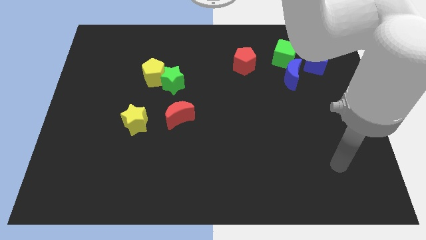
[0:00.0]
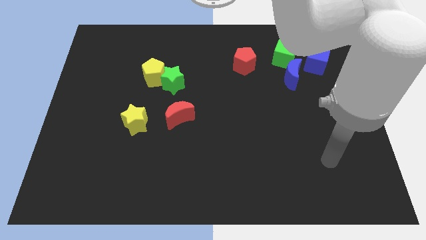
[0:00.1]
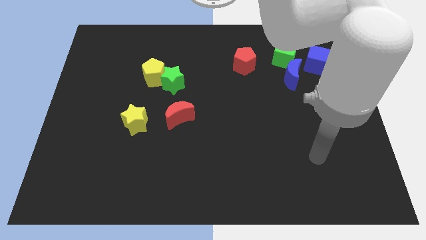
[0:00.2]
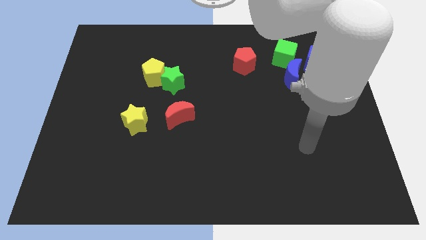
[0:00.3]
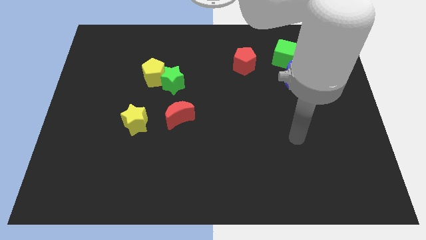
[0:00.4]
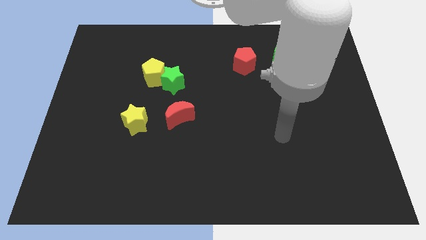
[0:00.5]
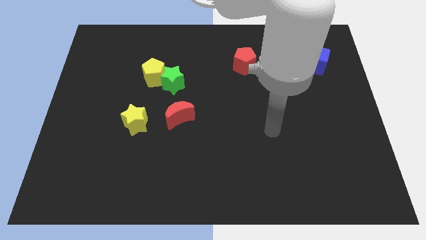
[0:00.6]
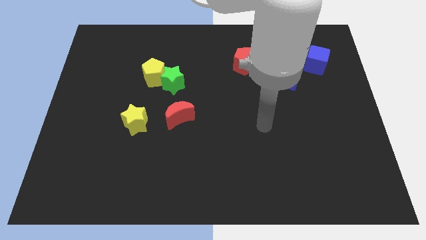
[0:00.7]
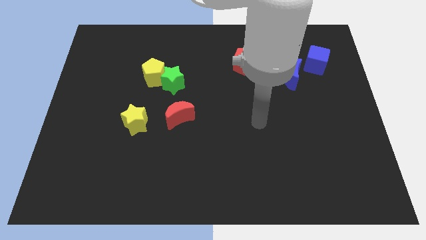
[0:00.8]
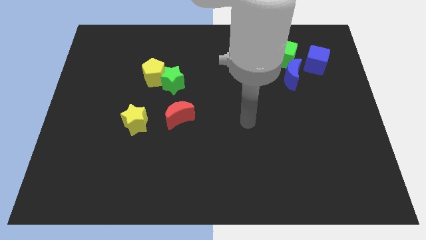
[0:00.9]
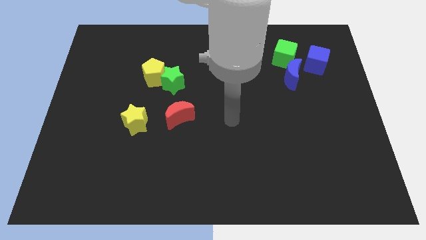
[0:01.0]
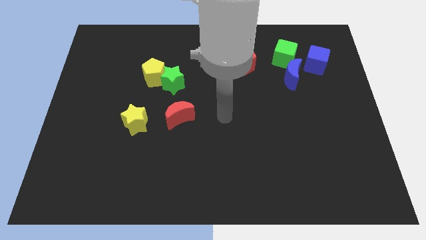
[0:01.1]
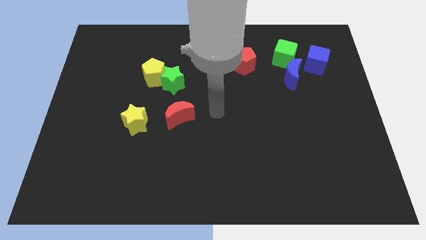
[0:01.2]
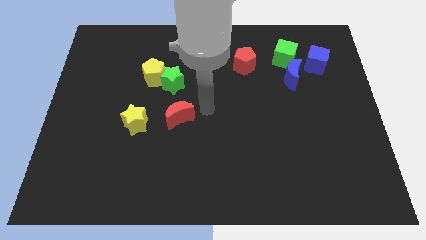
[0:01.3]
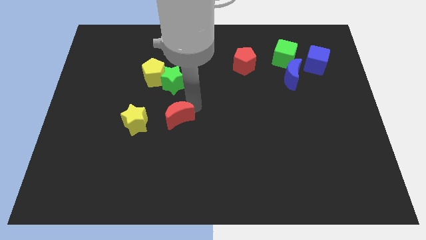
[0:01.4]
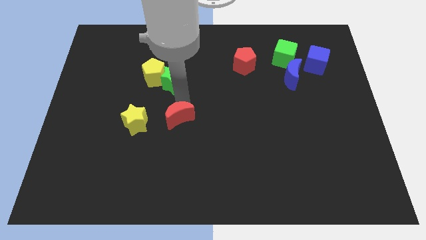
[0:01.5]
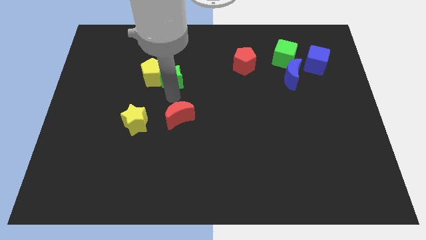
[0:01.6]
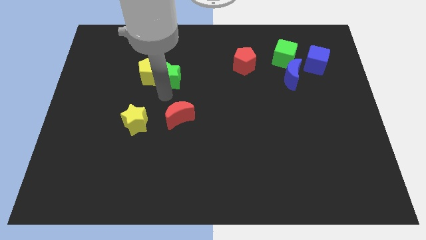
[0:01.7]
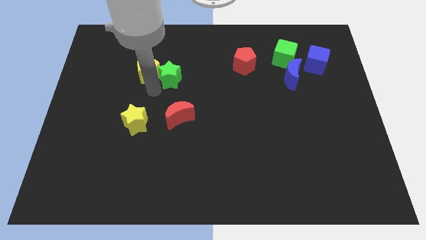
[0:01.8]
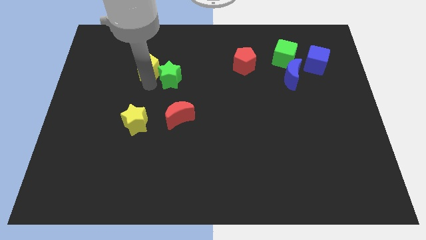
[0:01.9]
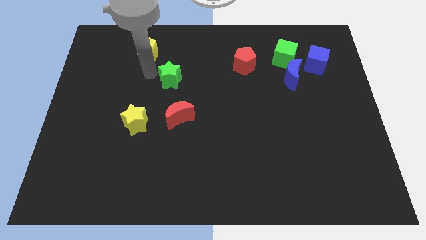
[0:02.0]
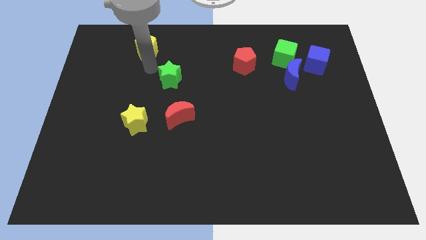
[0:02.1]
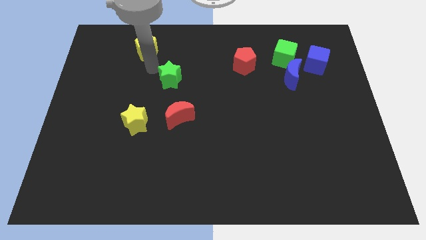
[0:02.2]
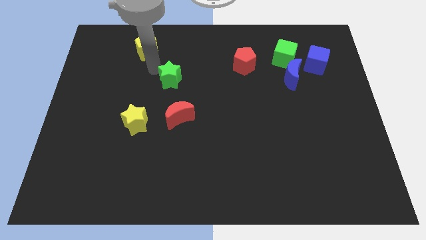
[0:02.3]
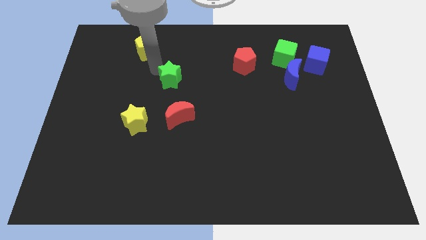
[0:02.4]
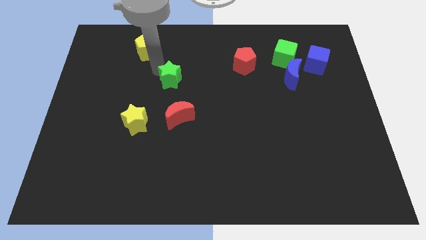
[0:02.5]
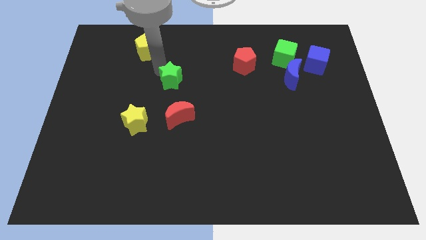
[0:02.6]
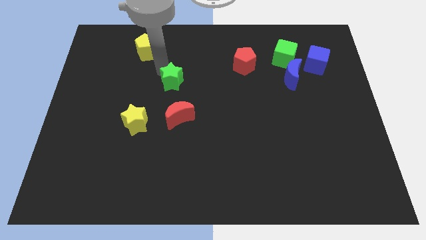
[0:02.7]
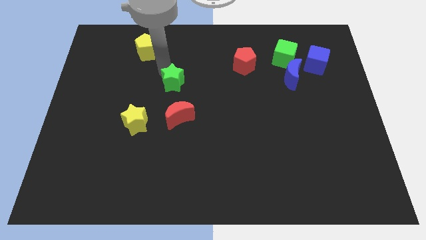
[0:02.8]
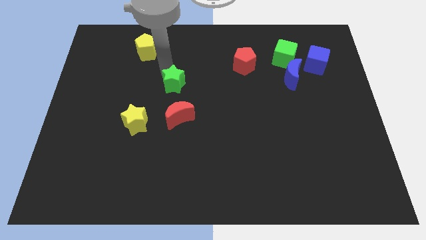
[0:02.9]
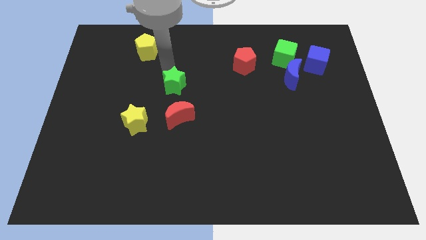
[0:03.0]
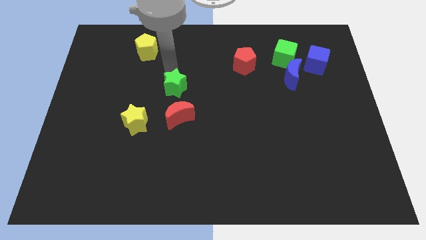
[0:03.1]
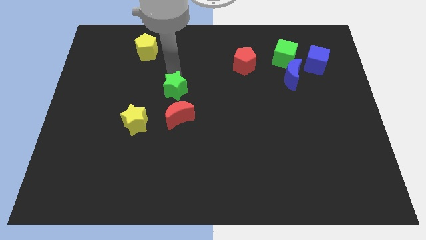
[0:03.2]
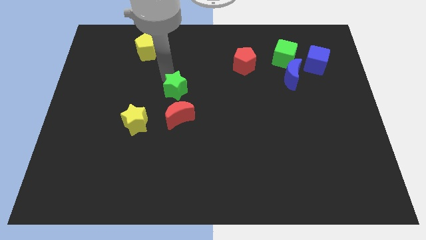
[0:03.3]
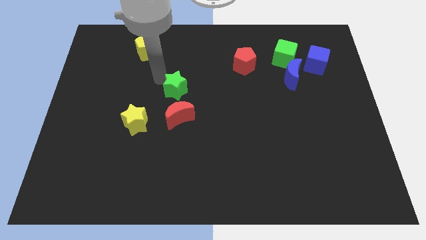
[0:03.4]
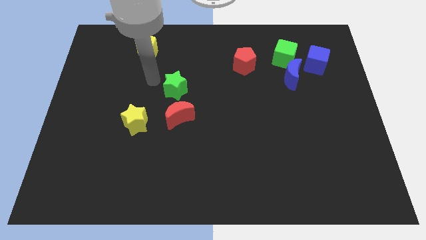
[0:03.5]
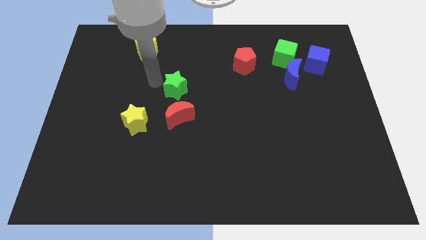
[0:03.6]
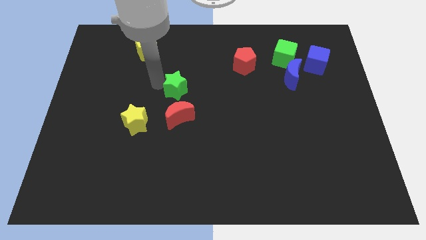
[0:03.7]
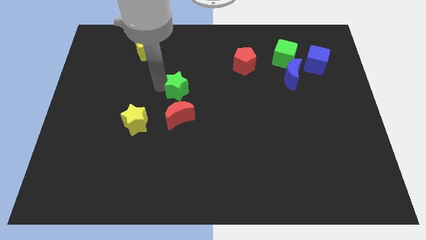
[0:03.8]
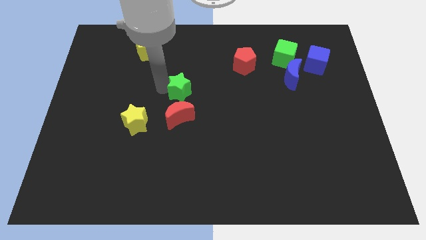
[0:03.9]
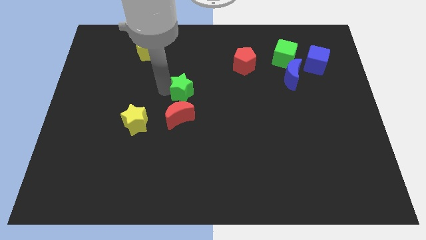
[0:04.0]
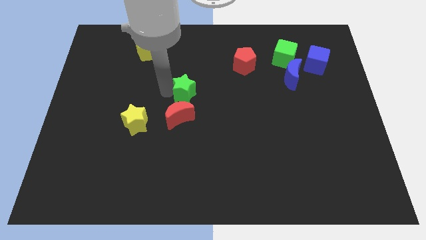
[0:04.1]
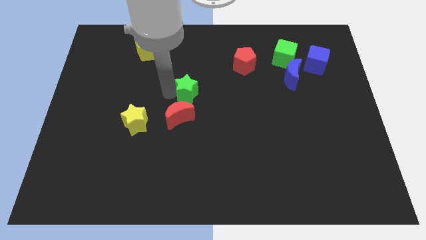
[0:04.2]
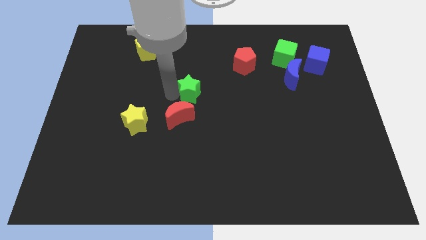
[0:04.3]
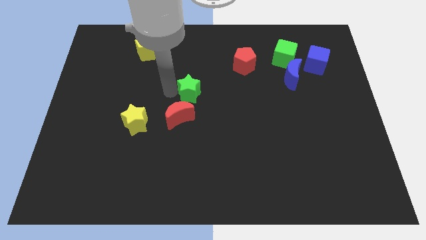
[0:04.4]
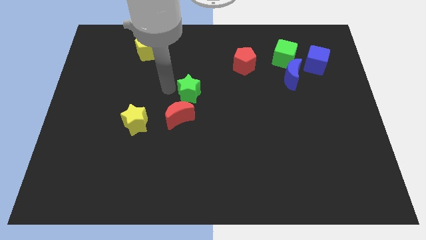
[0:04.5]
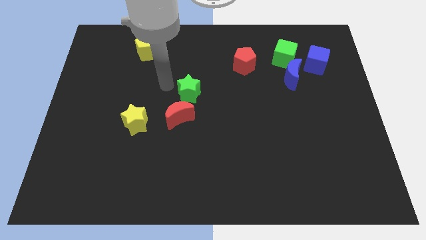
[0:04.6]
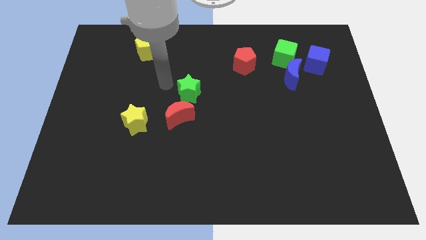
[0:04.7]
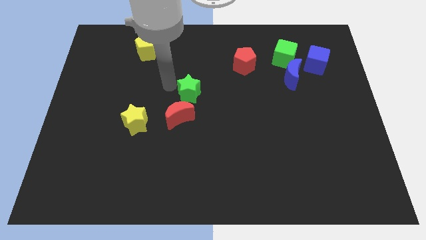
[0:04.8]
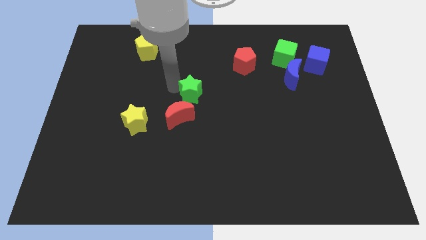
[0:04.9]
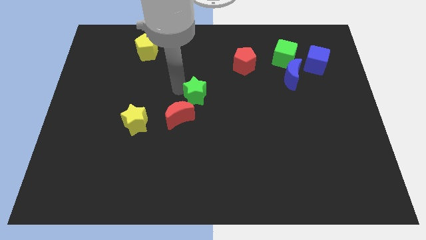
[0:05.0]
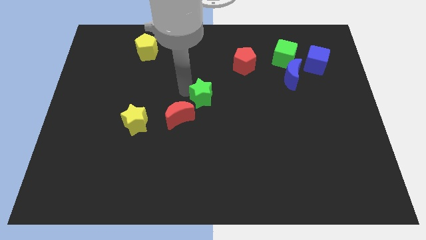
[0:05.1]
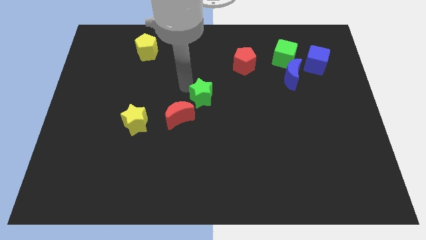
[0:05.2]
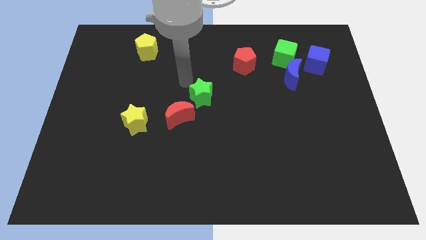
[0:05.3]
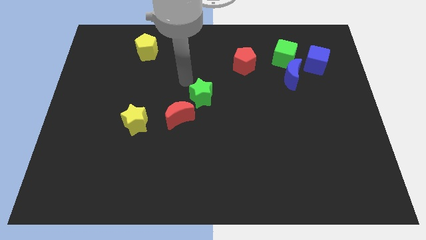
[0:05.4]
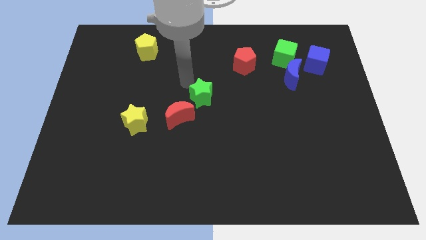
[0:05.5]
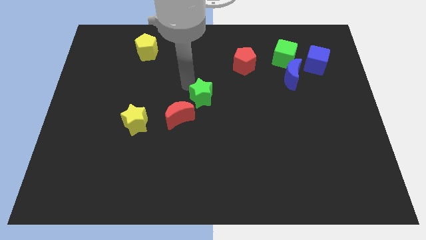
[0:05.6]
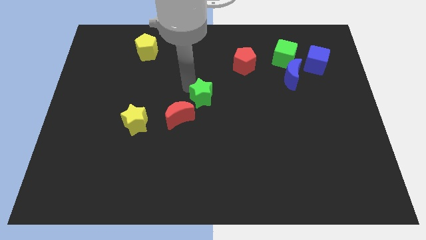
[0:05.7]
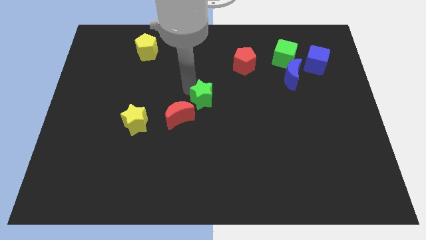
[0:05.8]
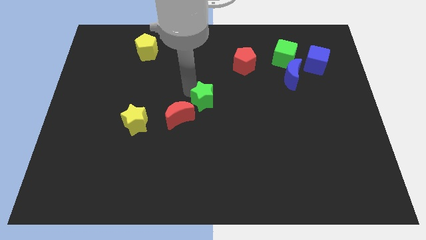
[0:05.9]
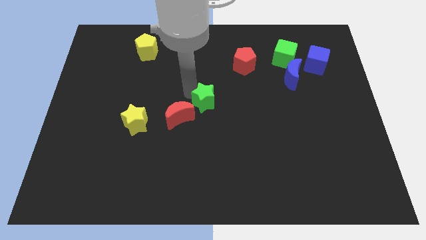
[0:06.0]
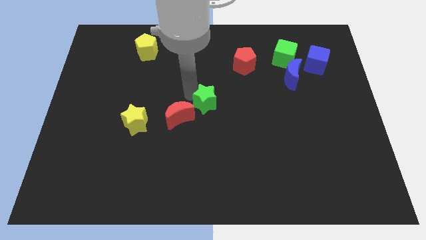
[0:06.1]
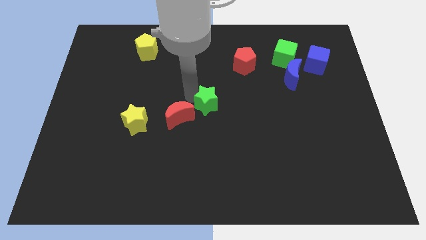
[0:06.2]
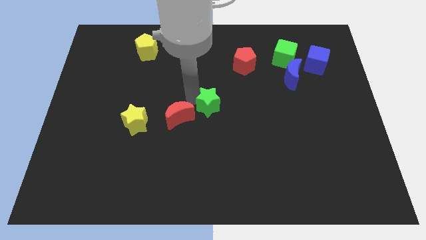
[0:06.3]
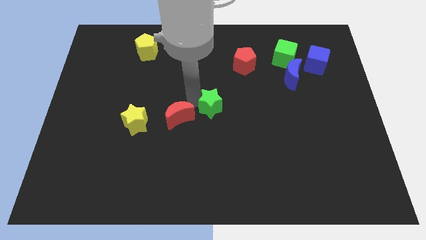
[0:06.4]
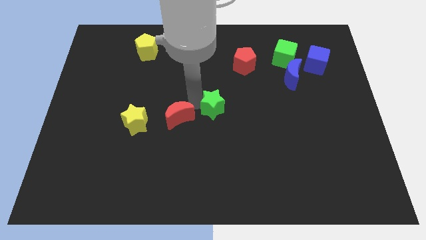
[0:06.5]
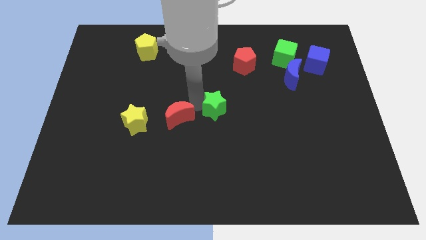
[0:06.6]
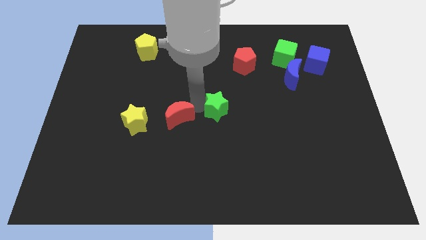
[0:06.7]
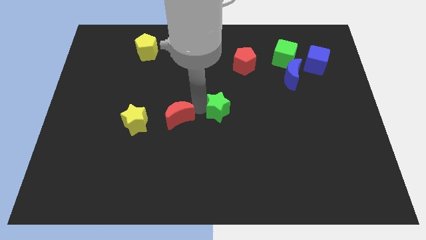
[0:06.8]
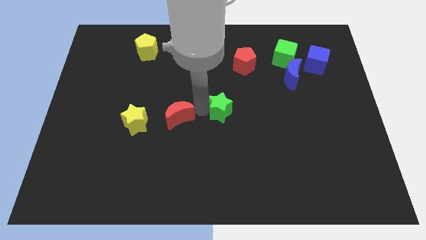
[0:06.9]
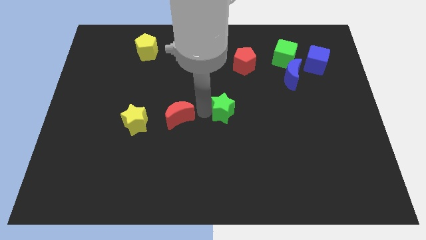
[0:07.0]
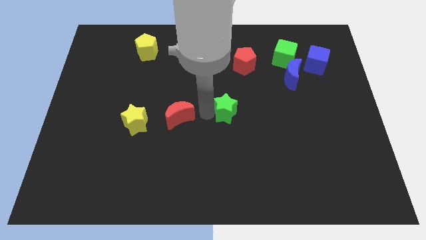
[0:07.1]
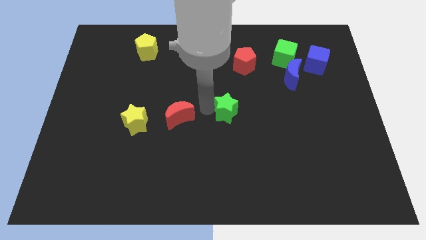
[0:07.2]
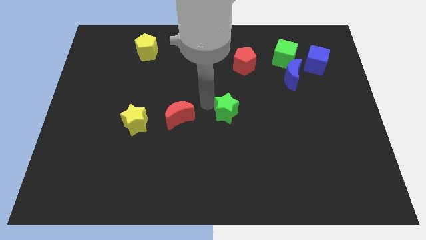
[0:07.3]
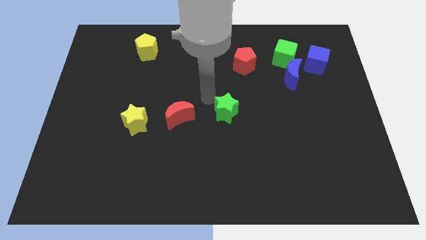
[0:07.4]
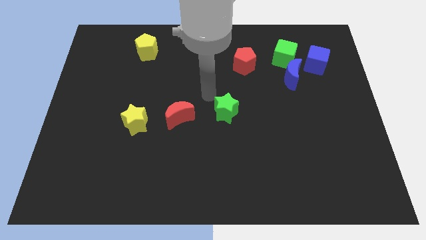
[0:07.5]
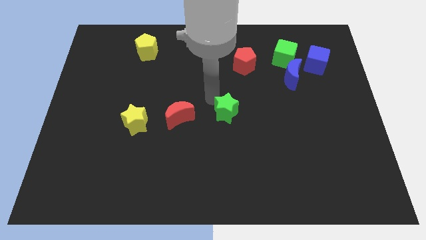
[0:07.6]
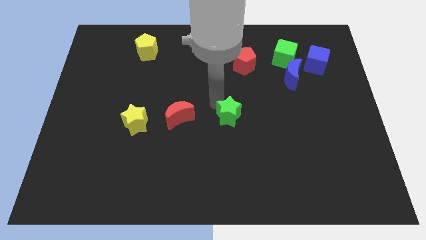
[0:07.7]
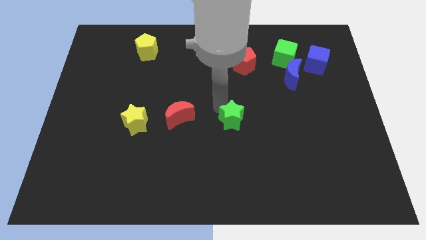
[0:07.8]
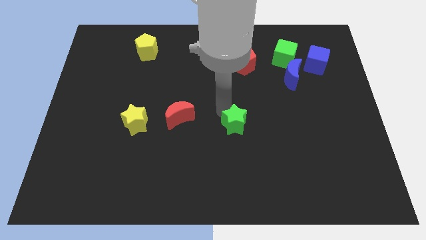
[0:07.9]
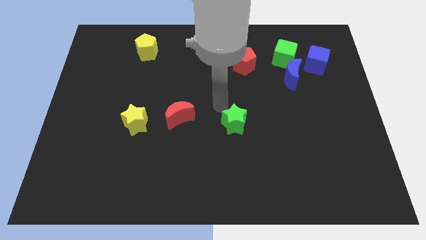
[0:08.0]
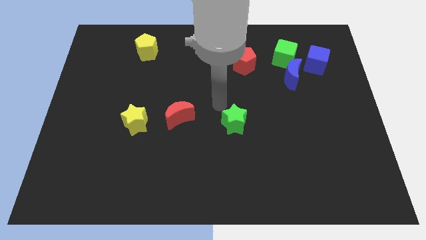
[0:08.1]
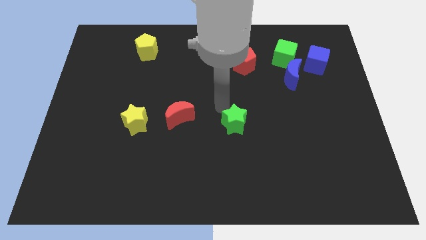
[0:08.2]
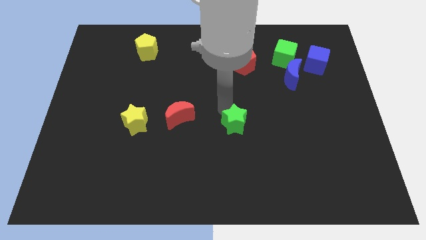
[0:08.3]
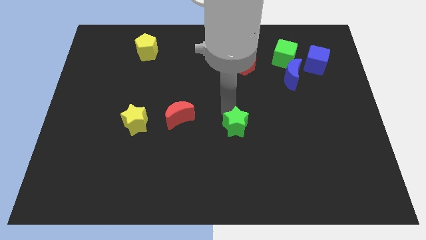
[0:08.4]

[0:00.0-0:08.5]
slide the green star downwards and to the right
